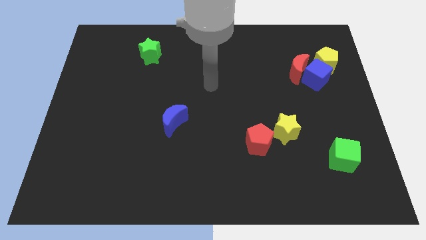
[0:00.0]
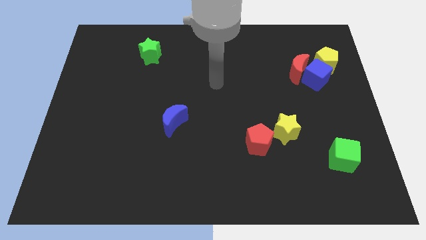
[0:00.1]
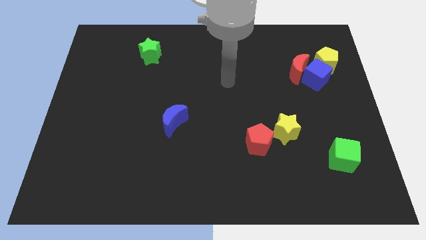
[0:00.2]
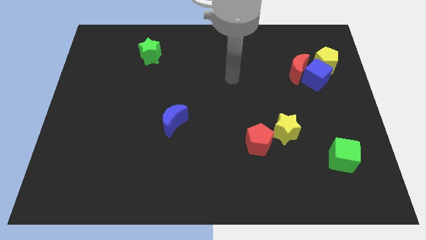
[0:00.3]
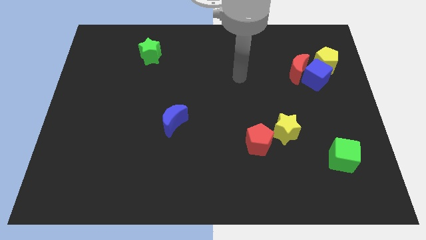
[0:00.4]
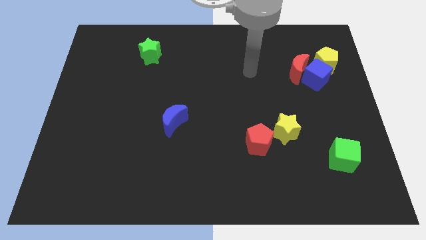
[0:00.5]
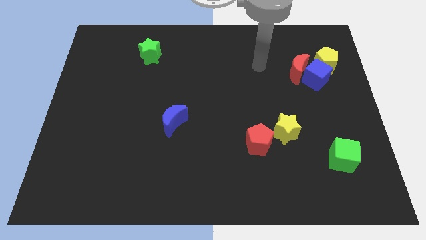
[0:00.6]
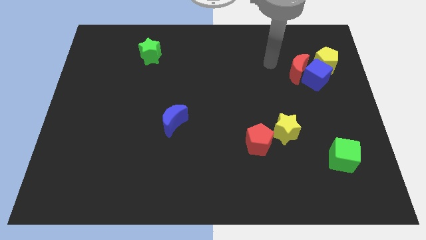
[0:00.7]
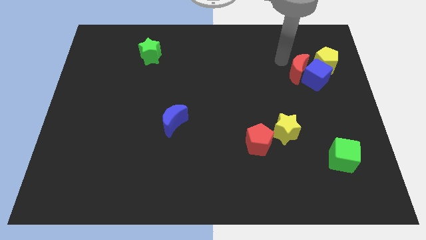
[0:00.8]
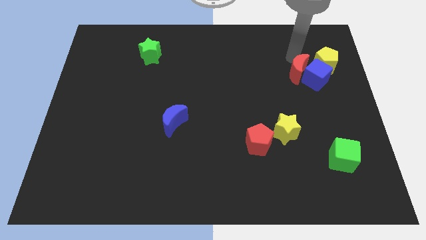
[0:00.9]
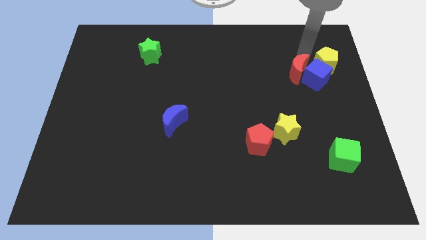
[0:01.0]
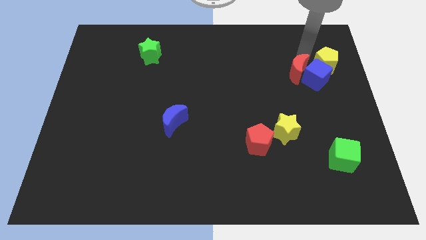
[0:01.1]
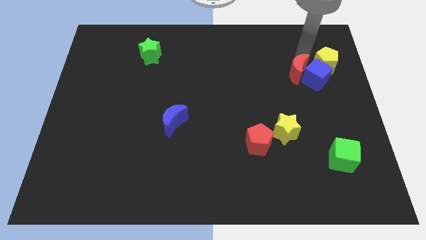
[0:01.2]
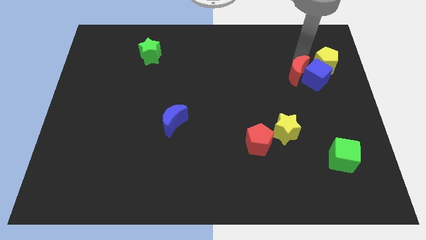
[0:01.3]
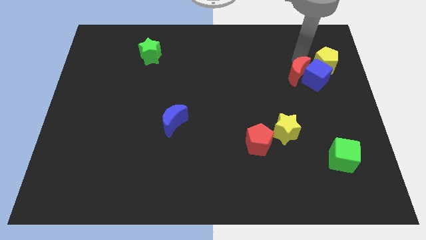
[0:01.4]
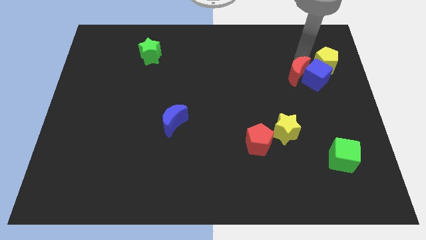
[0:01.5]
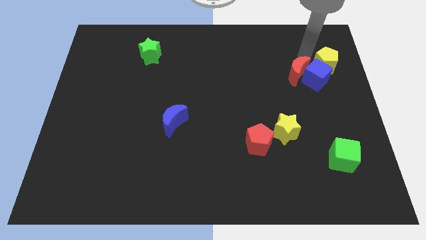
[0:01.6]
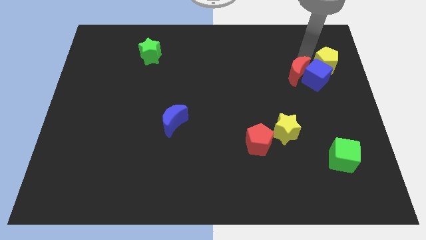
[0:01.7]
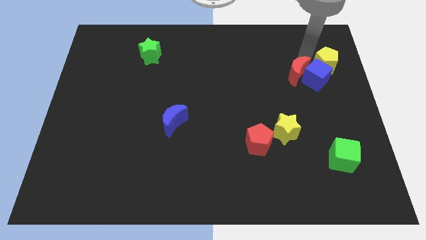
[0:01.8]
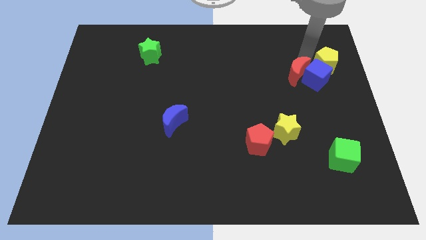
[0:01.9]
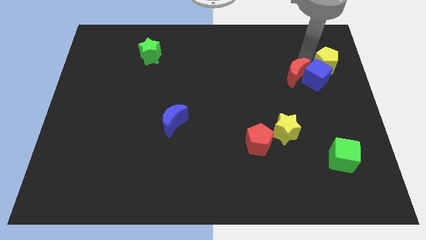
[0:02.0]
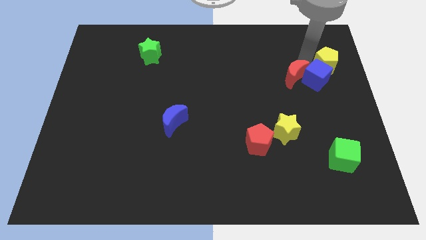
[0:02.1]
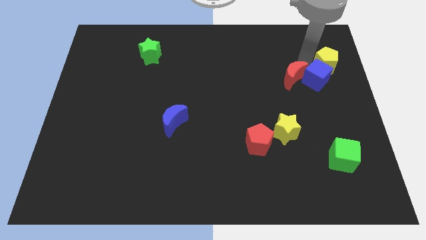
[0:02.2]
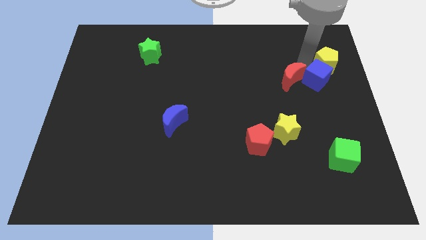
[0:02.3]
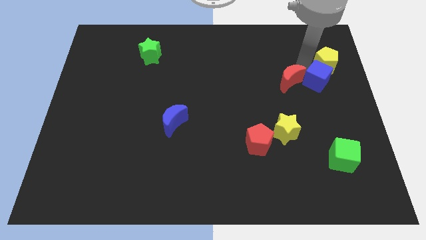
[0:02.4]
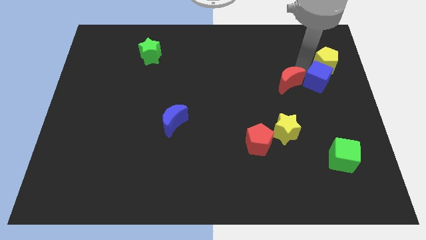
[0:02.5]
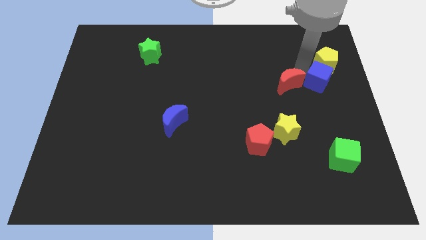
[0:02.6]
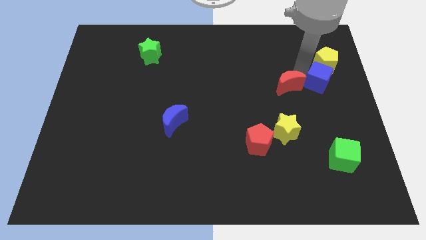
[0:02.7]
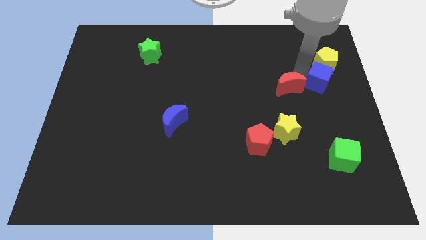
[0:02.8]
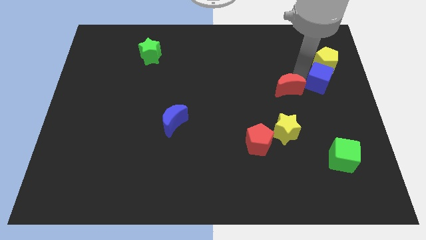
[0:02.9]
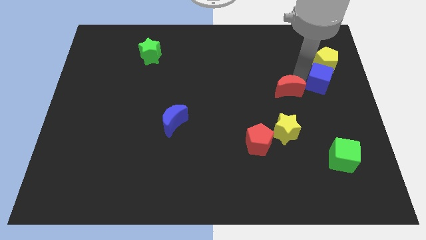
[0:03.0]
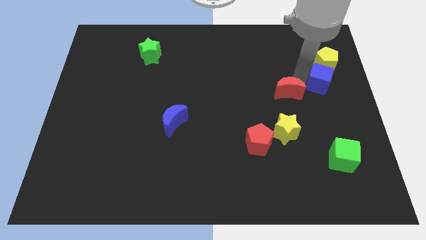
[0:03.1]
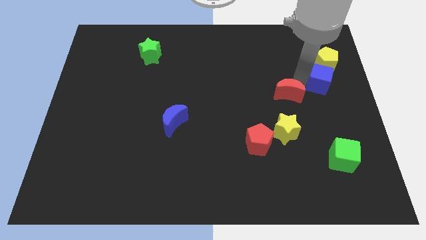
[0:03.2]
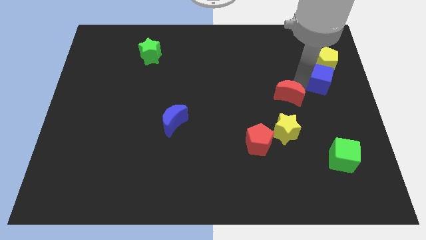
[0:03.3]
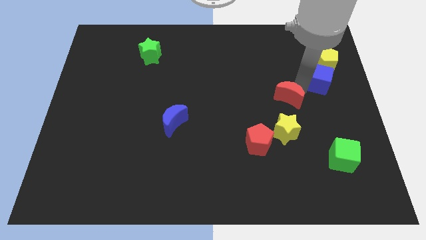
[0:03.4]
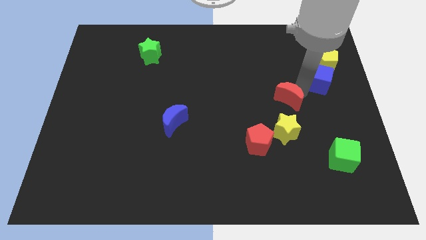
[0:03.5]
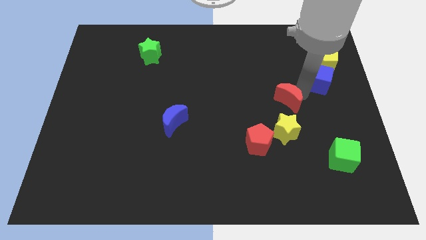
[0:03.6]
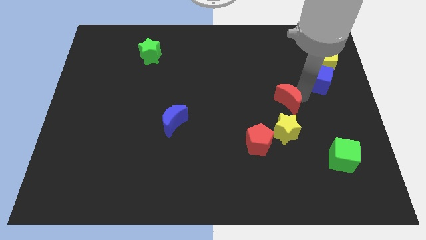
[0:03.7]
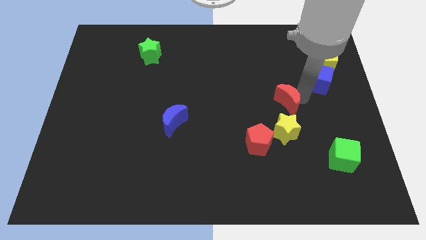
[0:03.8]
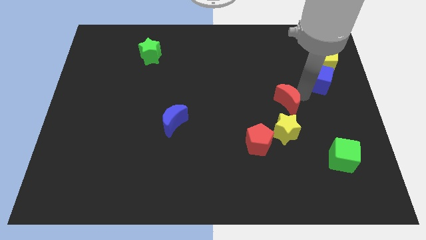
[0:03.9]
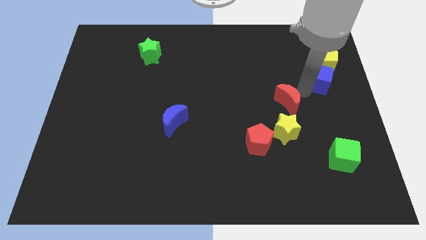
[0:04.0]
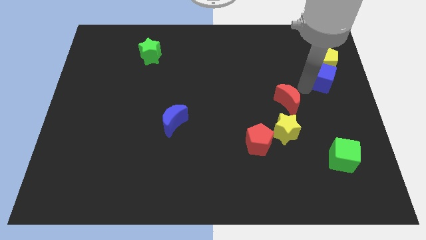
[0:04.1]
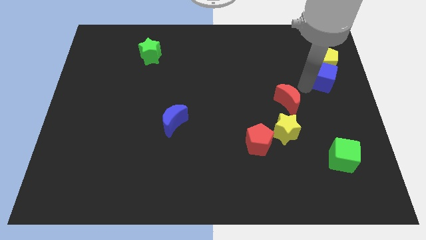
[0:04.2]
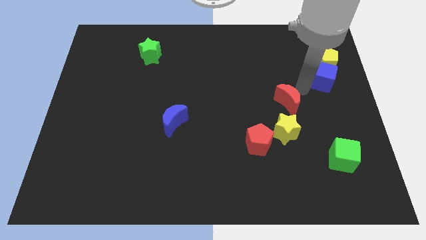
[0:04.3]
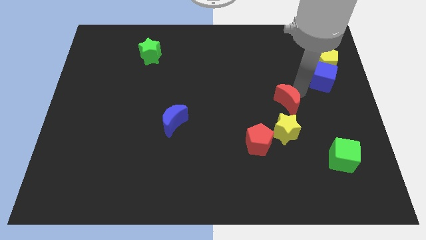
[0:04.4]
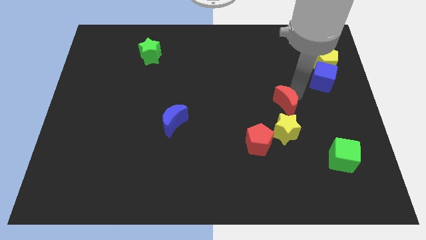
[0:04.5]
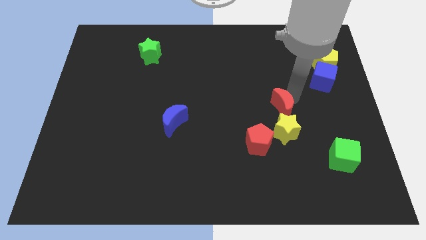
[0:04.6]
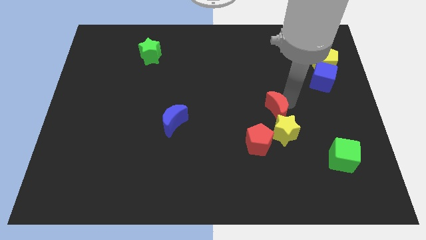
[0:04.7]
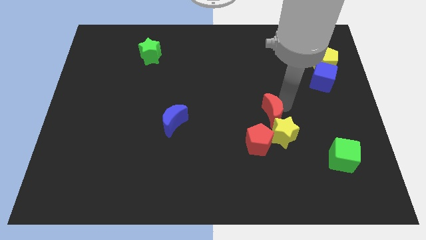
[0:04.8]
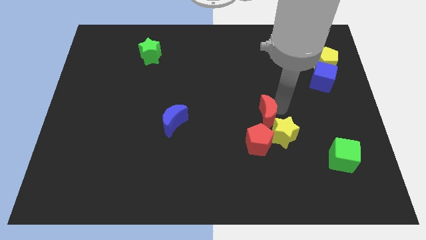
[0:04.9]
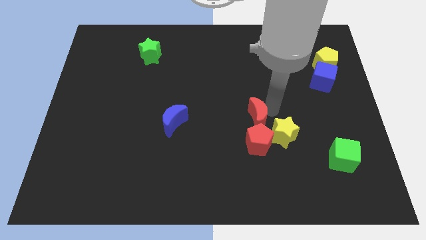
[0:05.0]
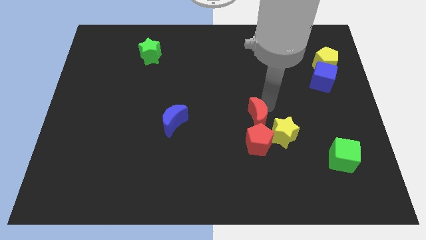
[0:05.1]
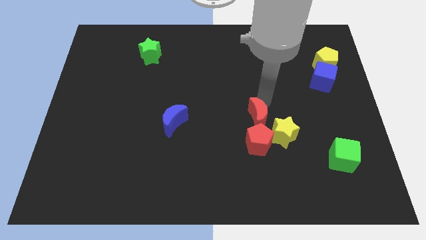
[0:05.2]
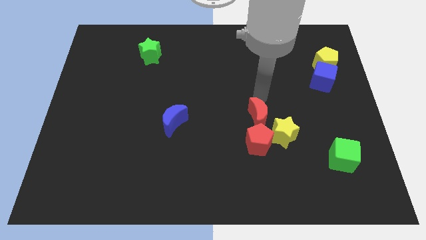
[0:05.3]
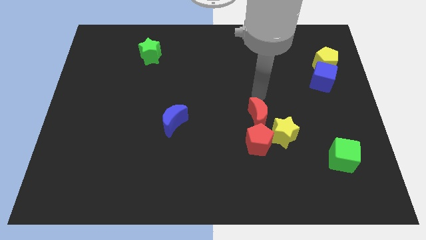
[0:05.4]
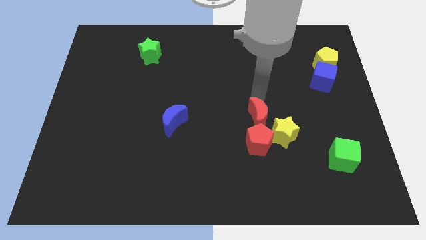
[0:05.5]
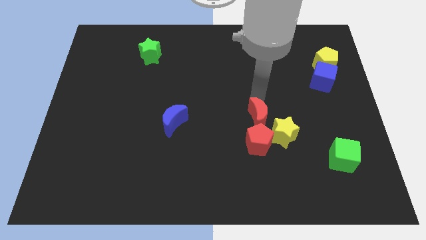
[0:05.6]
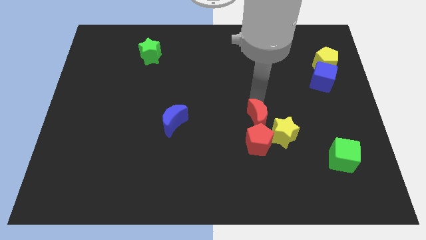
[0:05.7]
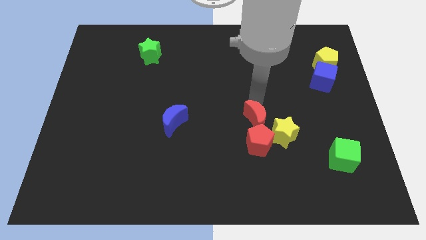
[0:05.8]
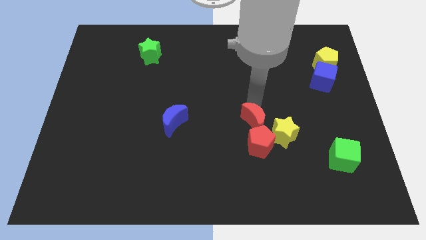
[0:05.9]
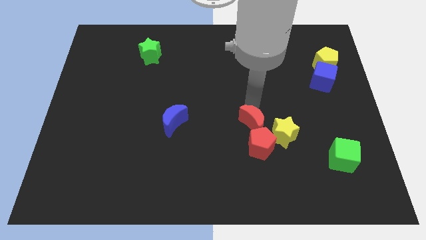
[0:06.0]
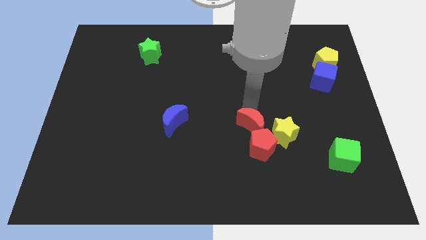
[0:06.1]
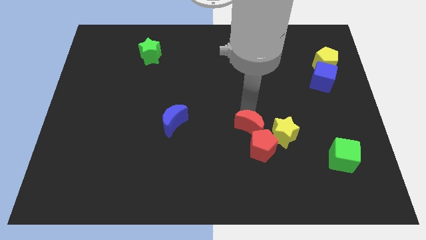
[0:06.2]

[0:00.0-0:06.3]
slide the red moon next to the red pentagon

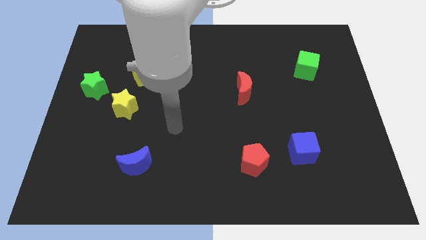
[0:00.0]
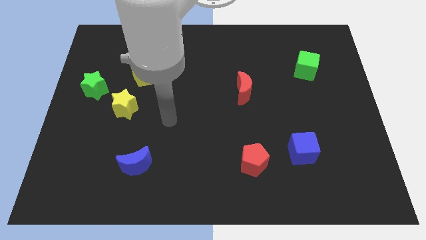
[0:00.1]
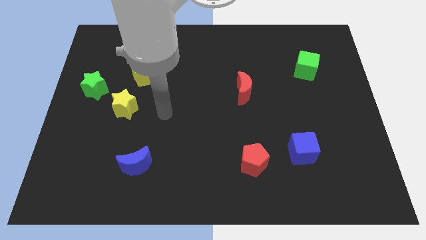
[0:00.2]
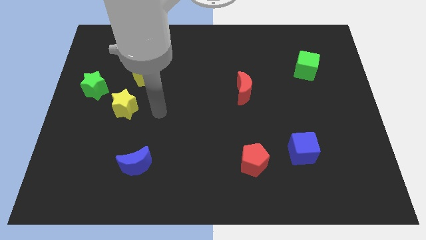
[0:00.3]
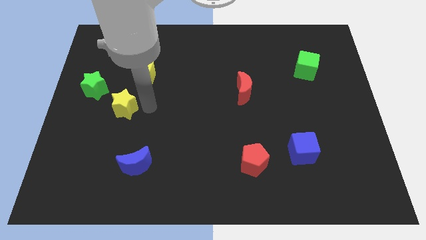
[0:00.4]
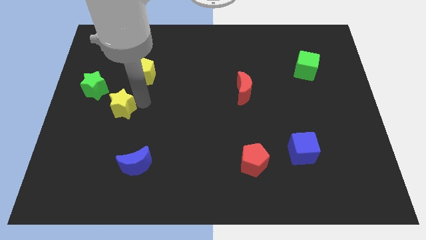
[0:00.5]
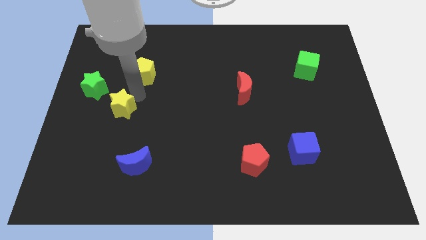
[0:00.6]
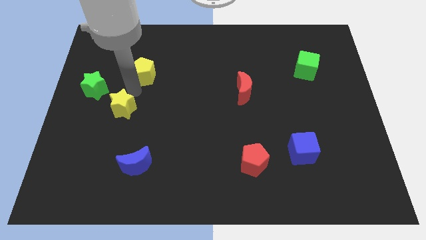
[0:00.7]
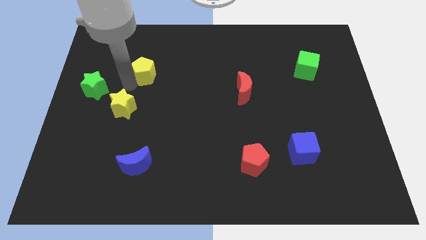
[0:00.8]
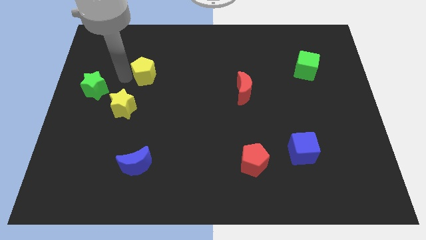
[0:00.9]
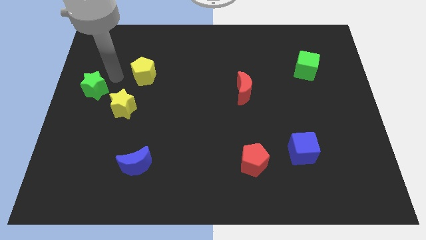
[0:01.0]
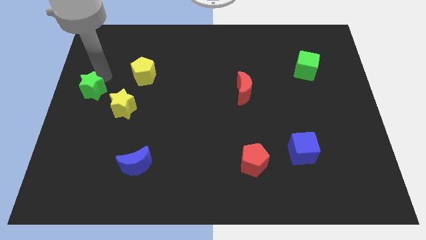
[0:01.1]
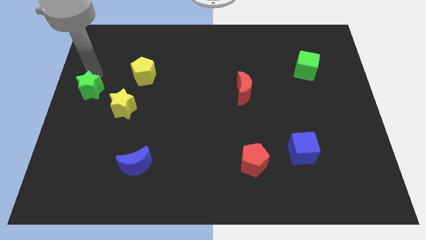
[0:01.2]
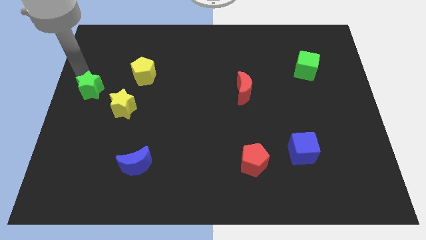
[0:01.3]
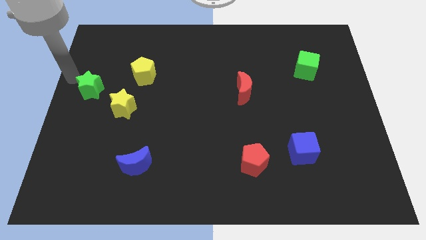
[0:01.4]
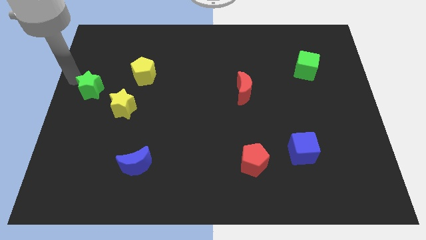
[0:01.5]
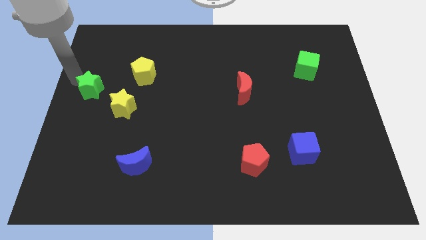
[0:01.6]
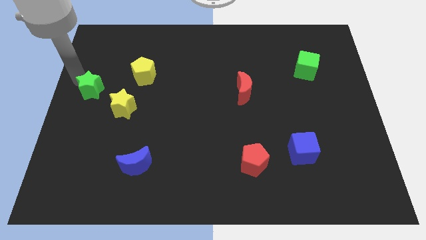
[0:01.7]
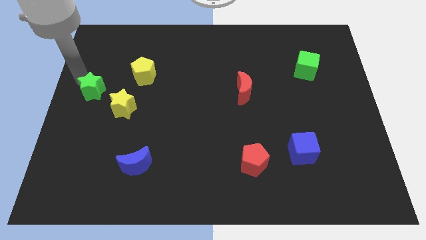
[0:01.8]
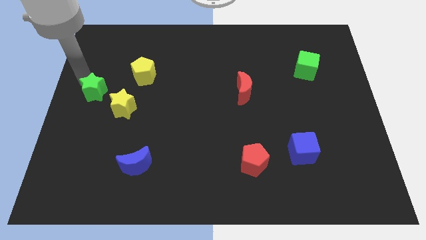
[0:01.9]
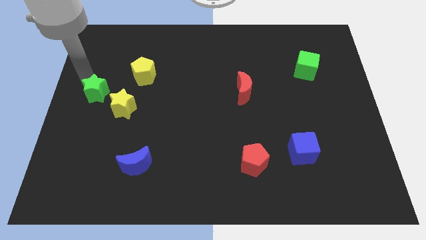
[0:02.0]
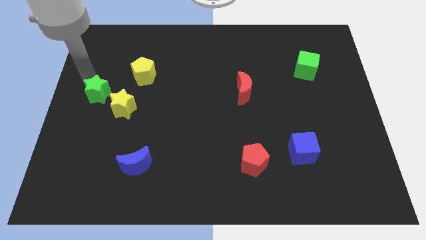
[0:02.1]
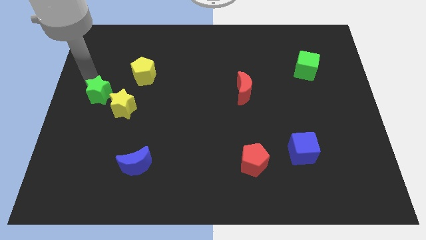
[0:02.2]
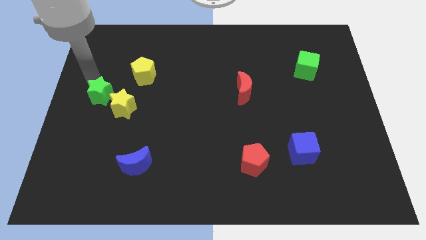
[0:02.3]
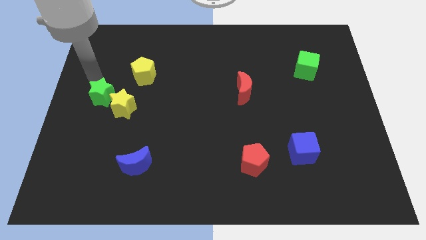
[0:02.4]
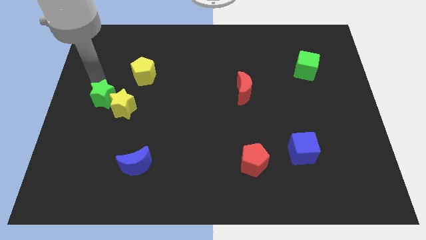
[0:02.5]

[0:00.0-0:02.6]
move the green star close to the yellow star
